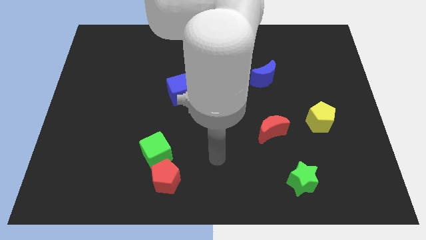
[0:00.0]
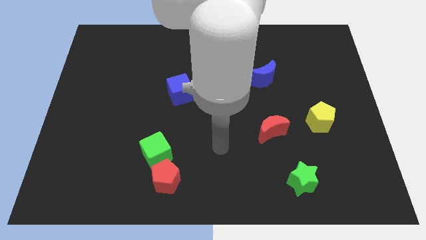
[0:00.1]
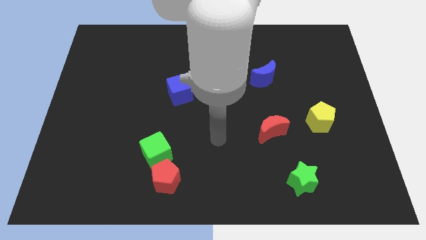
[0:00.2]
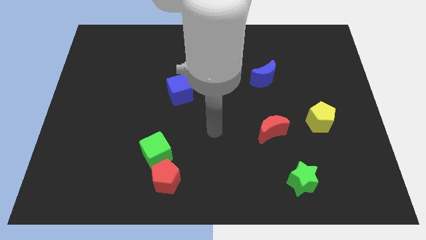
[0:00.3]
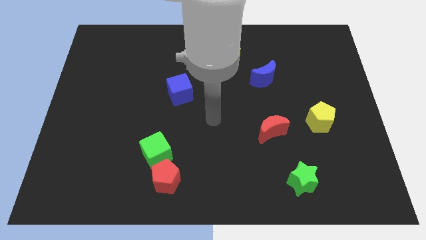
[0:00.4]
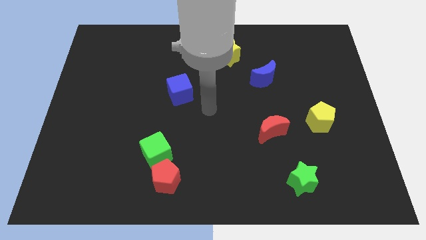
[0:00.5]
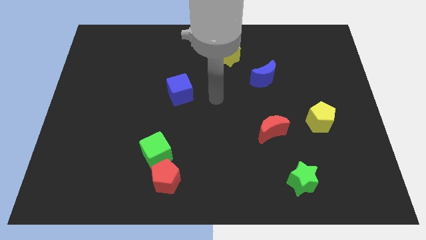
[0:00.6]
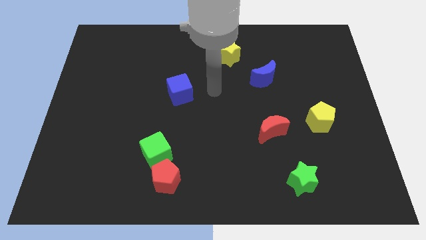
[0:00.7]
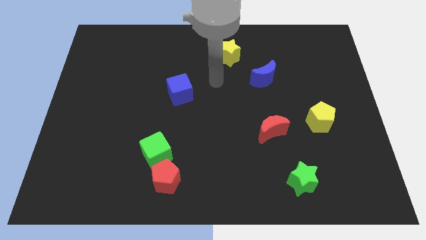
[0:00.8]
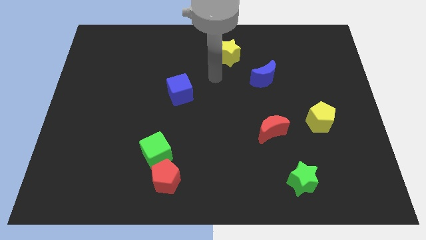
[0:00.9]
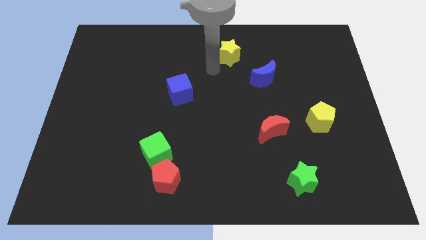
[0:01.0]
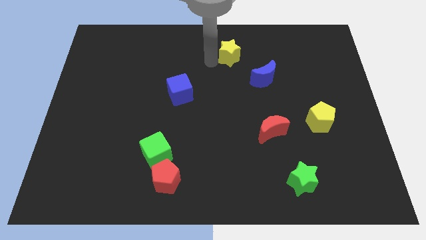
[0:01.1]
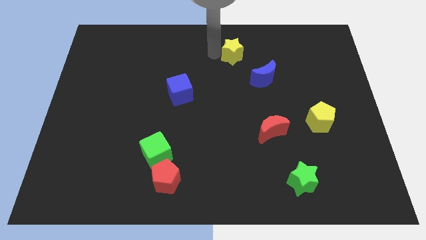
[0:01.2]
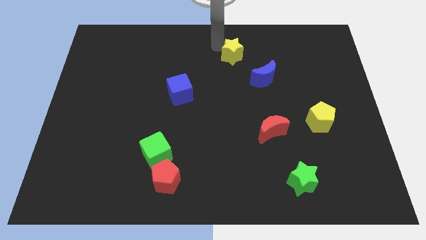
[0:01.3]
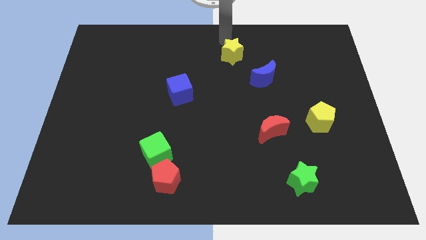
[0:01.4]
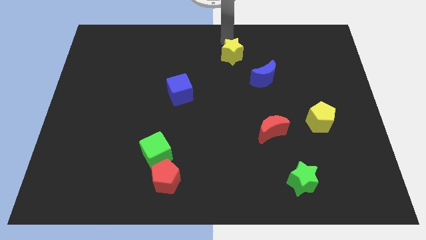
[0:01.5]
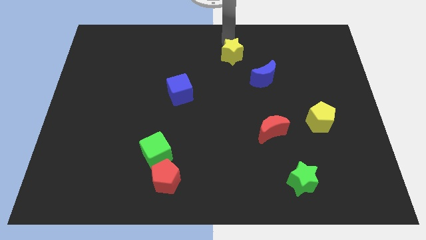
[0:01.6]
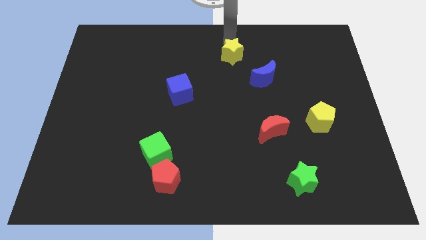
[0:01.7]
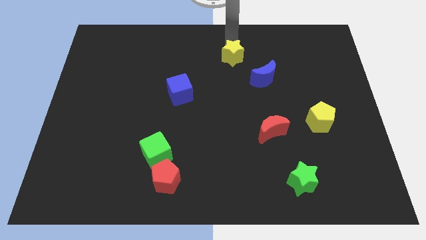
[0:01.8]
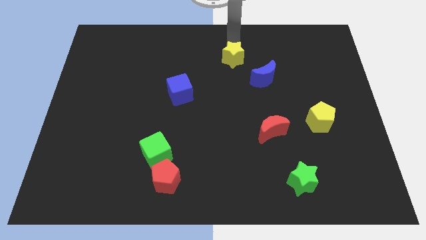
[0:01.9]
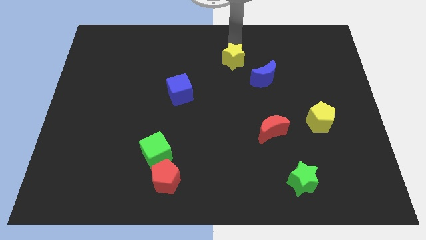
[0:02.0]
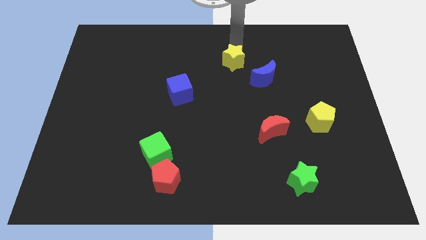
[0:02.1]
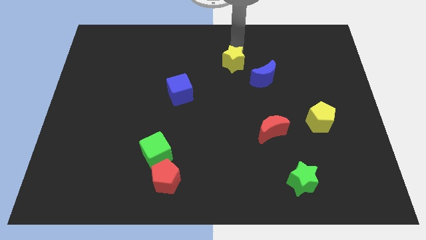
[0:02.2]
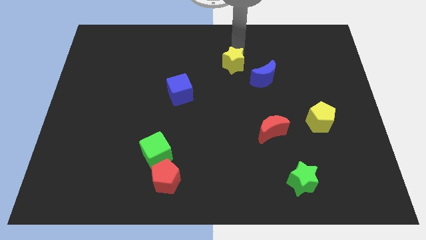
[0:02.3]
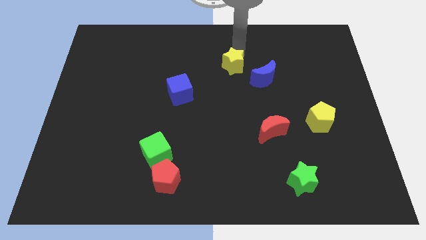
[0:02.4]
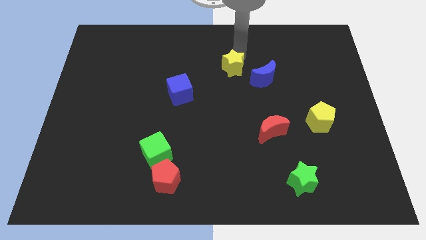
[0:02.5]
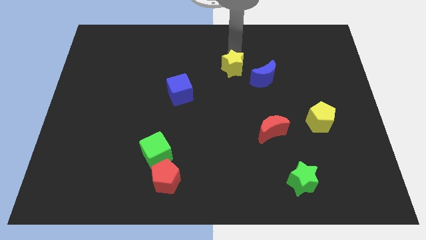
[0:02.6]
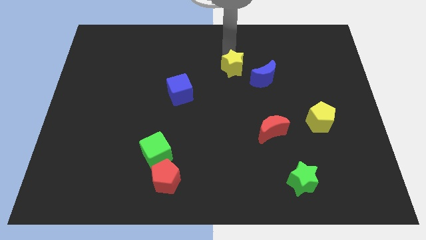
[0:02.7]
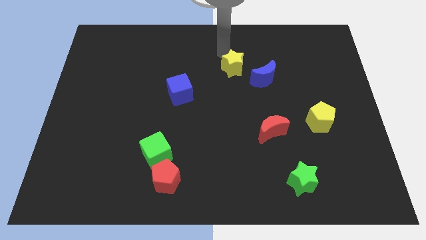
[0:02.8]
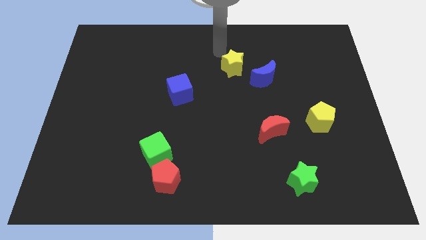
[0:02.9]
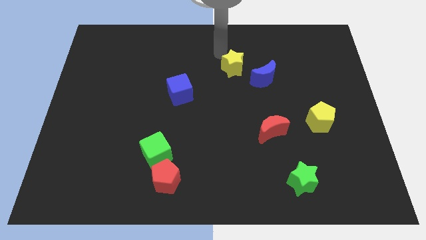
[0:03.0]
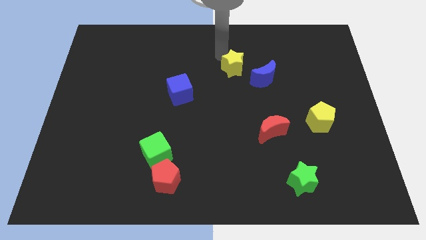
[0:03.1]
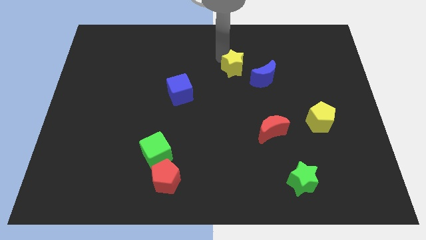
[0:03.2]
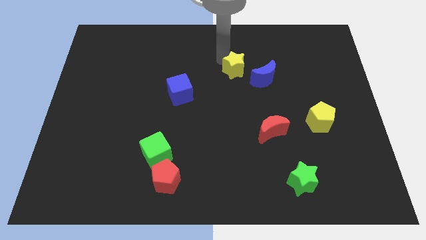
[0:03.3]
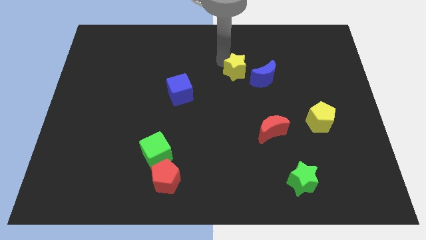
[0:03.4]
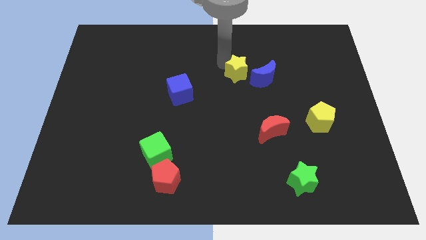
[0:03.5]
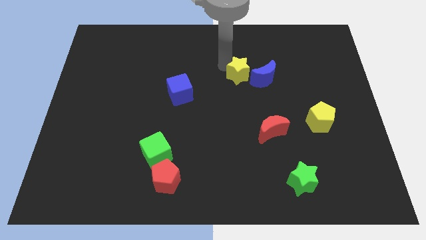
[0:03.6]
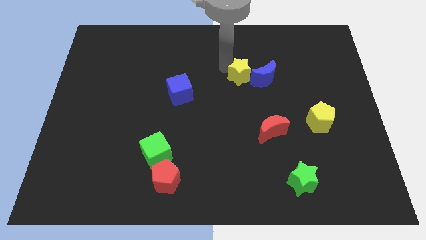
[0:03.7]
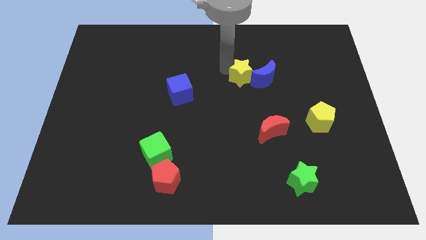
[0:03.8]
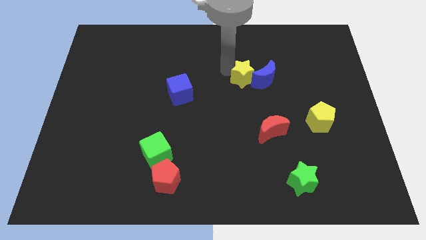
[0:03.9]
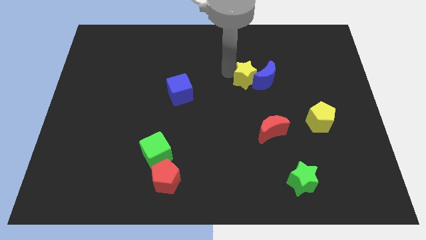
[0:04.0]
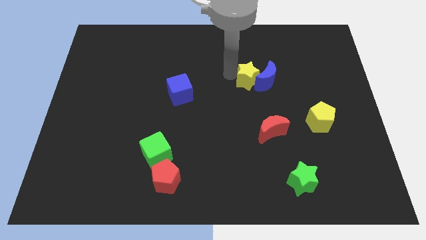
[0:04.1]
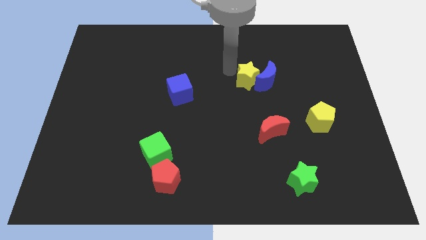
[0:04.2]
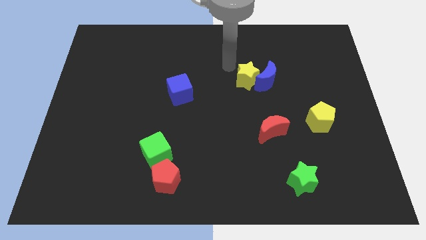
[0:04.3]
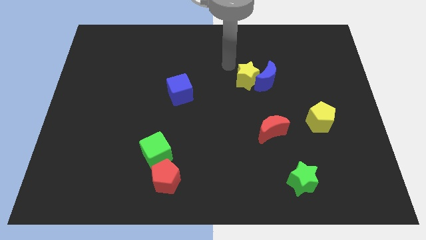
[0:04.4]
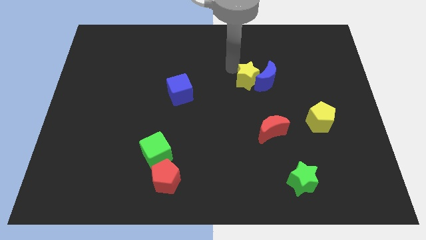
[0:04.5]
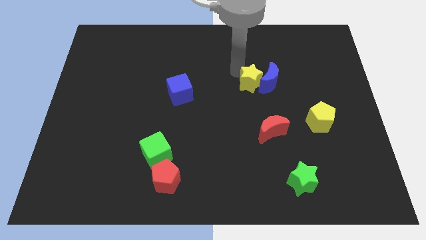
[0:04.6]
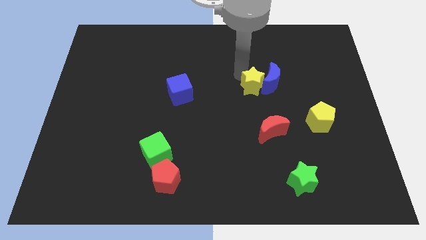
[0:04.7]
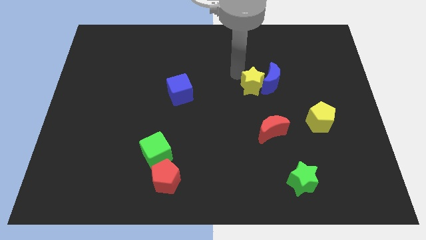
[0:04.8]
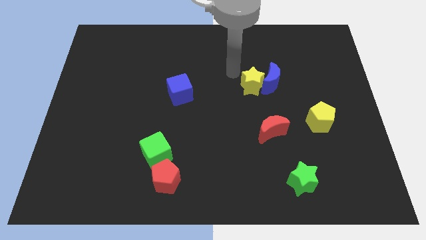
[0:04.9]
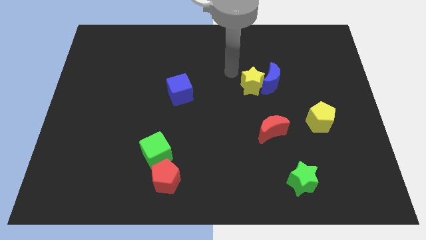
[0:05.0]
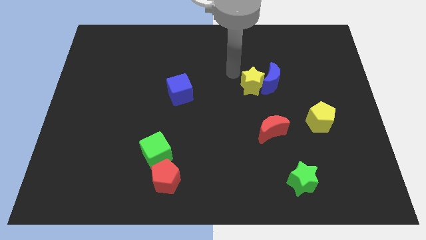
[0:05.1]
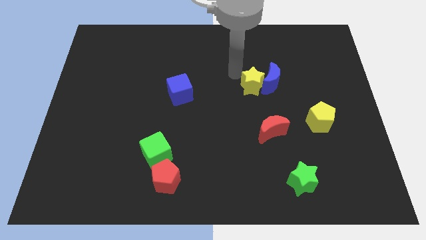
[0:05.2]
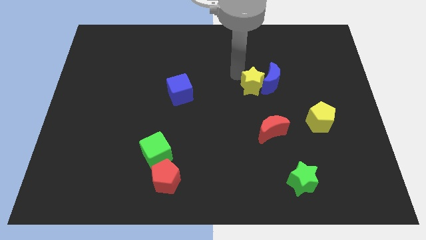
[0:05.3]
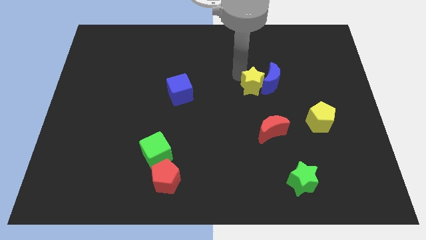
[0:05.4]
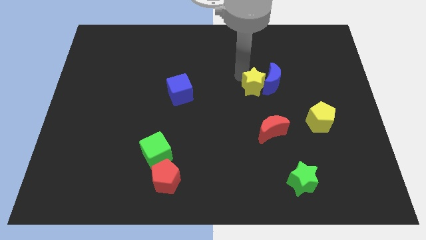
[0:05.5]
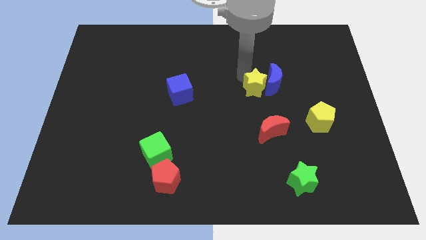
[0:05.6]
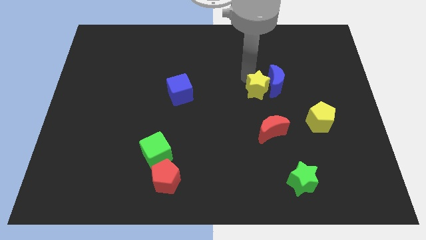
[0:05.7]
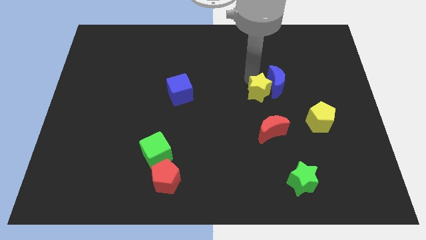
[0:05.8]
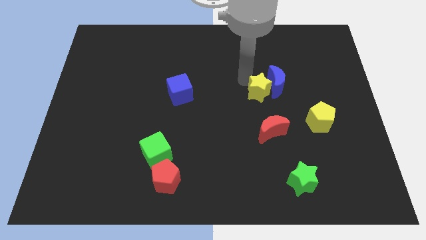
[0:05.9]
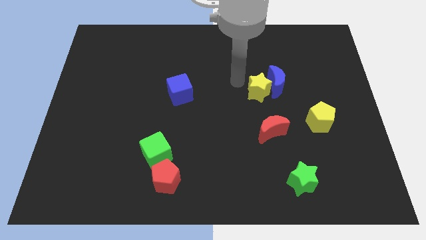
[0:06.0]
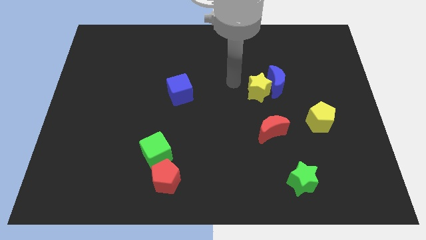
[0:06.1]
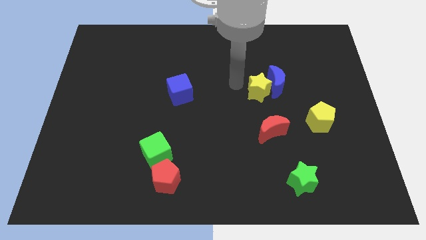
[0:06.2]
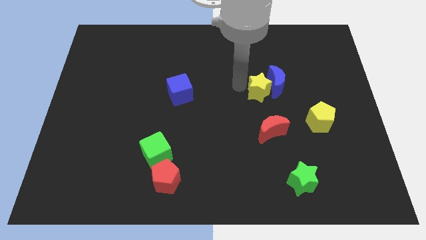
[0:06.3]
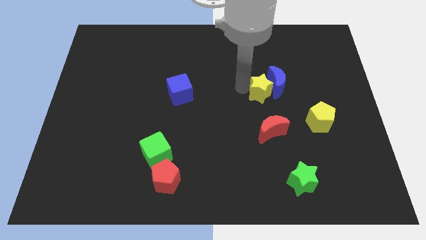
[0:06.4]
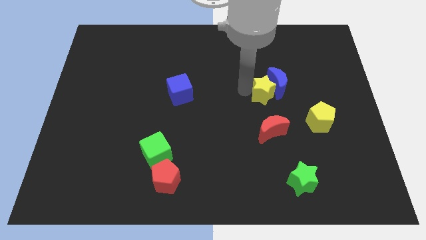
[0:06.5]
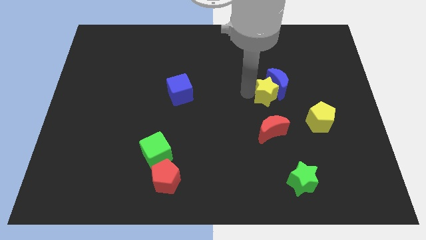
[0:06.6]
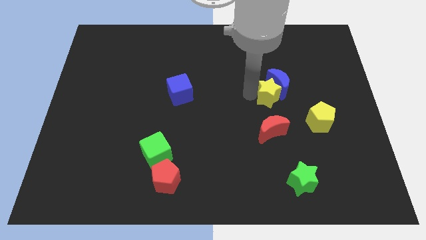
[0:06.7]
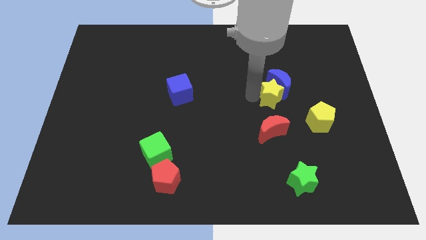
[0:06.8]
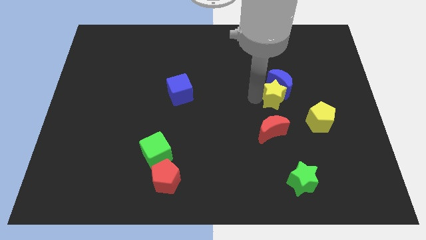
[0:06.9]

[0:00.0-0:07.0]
slide the yellow star to the top left side of the yellow pentagon

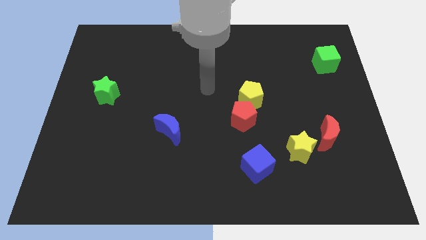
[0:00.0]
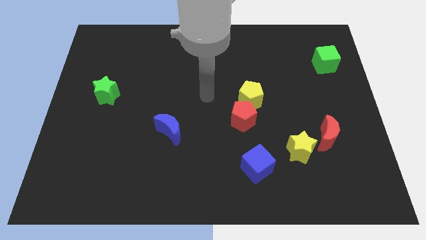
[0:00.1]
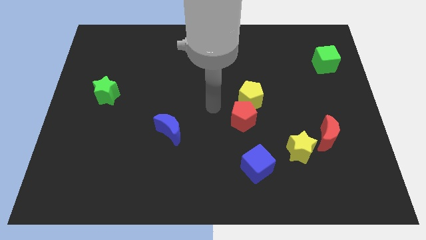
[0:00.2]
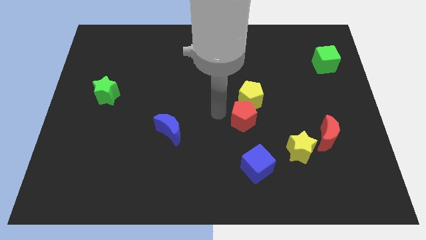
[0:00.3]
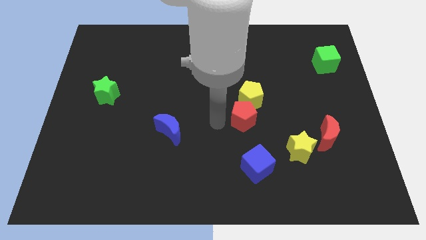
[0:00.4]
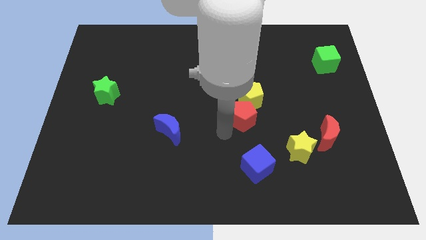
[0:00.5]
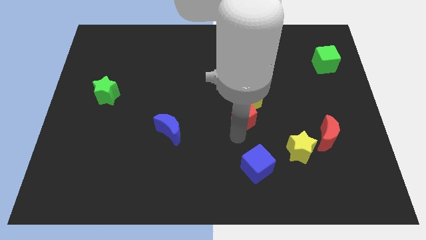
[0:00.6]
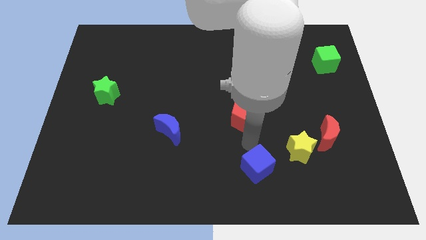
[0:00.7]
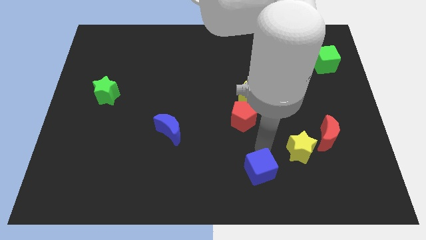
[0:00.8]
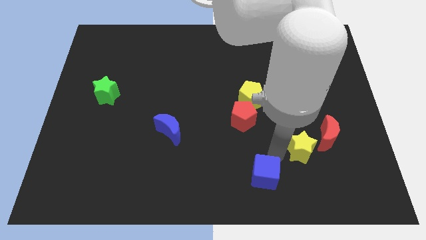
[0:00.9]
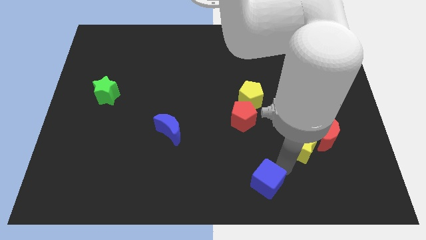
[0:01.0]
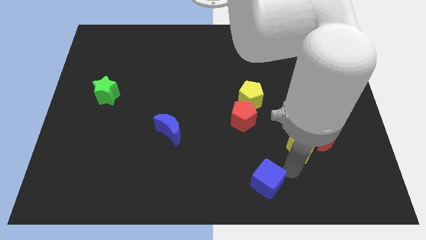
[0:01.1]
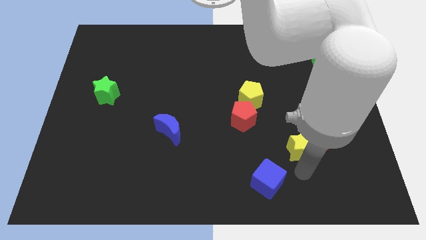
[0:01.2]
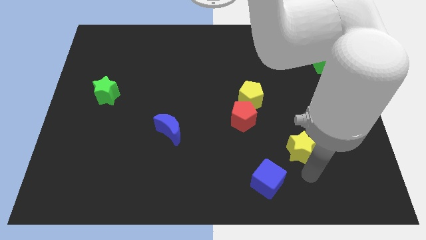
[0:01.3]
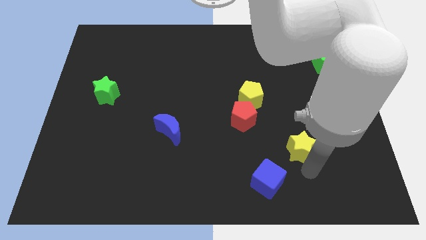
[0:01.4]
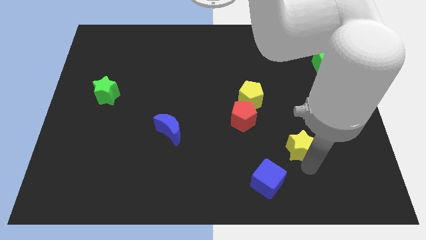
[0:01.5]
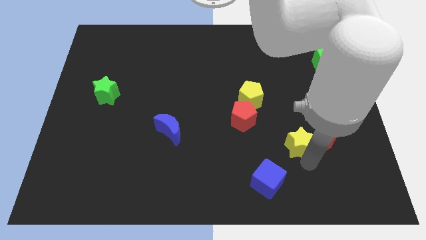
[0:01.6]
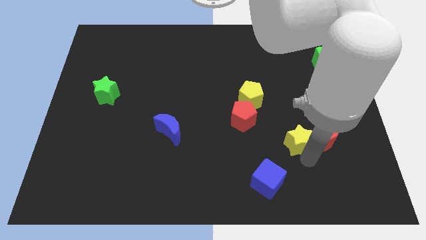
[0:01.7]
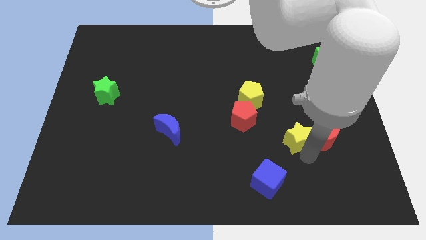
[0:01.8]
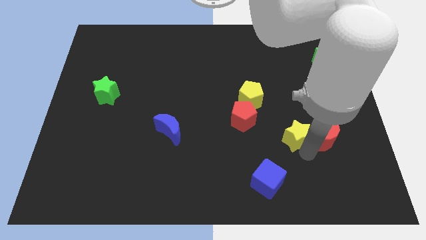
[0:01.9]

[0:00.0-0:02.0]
push the yellow star to the right side of the red pentagon
